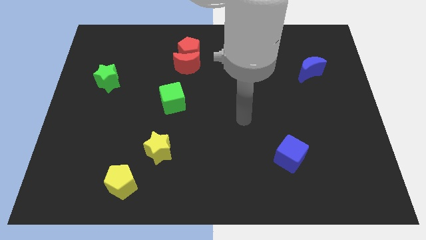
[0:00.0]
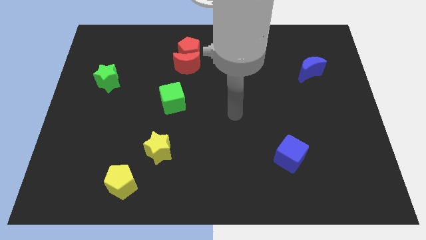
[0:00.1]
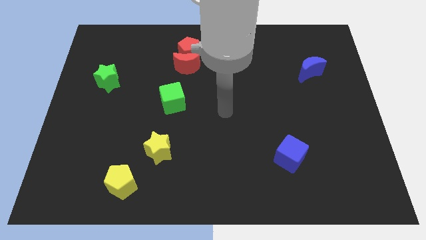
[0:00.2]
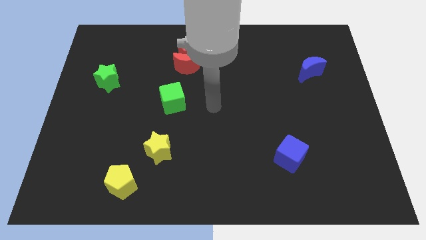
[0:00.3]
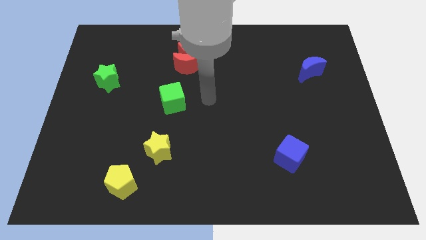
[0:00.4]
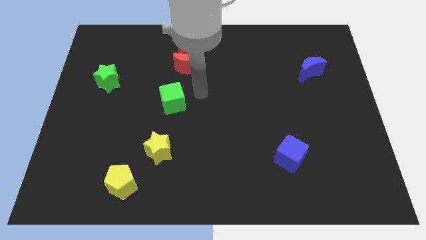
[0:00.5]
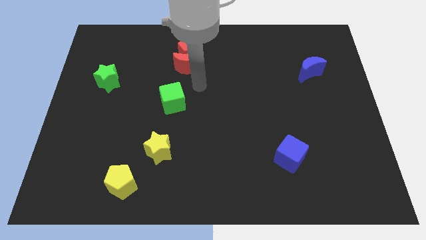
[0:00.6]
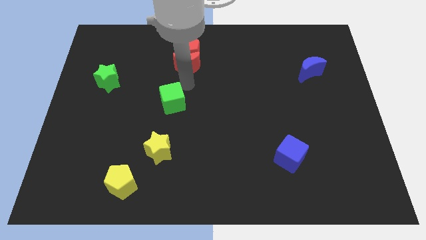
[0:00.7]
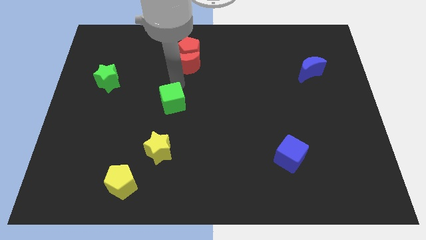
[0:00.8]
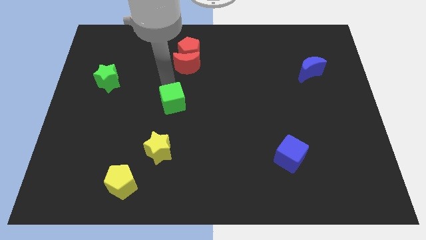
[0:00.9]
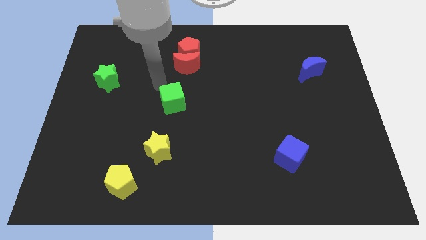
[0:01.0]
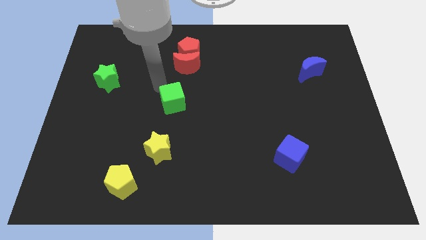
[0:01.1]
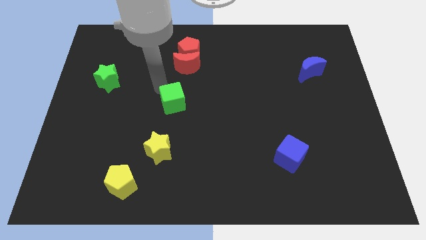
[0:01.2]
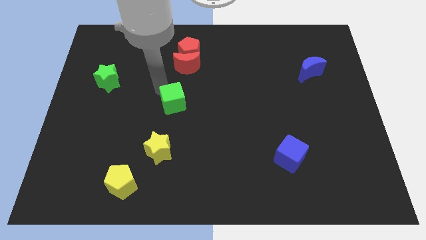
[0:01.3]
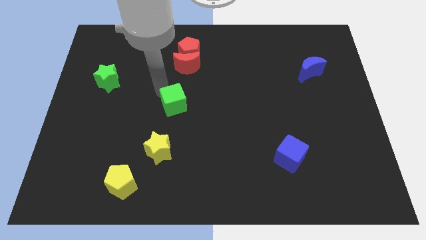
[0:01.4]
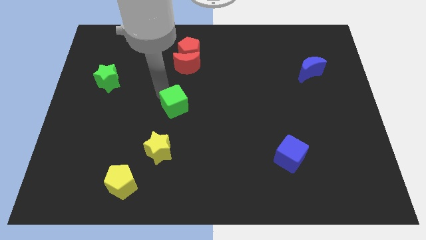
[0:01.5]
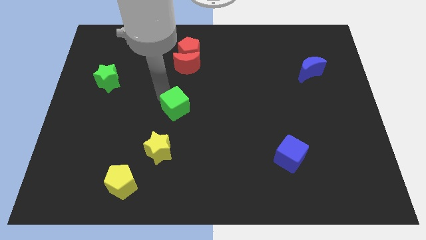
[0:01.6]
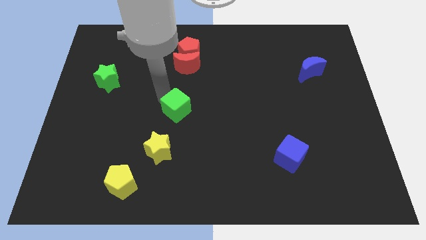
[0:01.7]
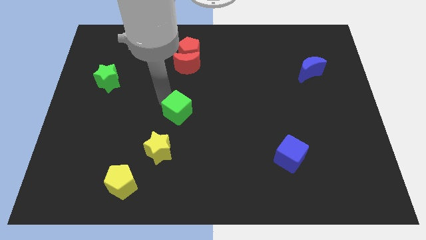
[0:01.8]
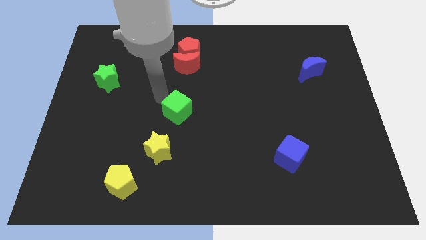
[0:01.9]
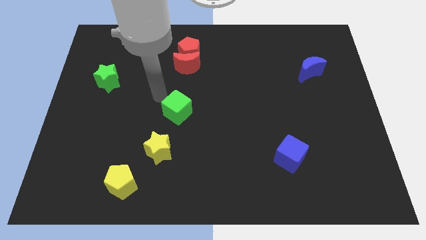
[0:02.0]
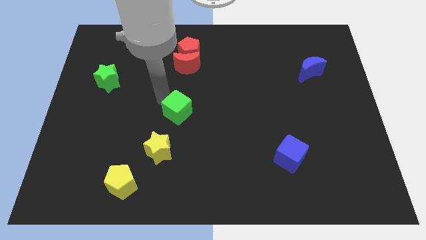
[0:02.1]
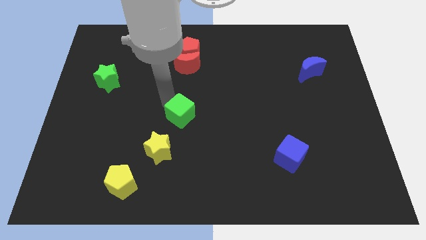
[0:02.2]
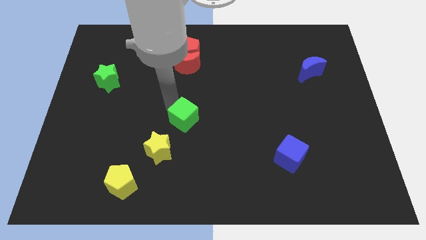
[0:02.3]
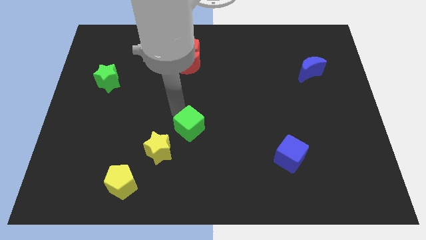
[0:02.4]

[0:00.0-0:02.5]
move the green cube down and right diagonally a little

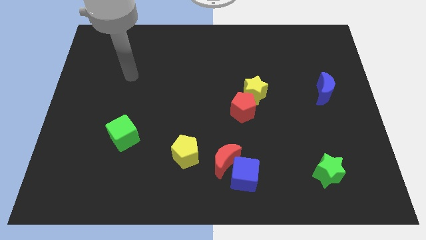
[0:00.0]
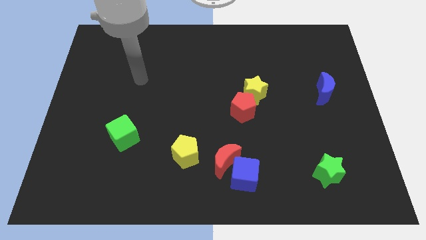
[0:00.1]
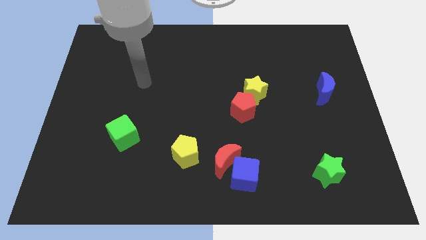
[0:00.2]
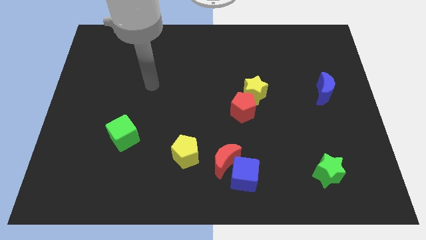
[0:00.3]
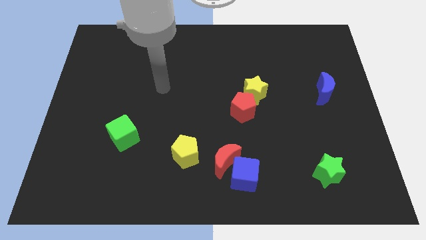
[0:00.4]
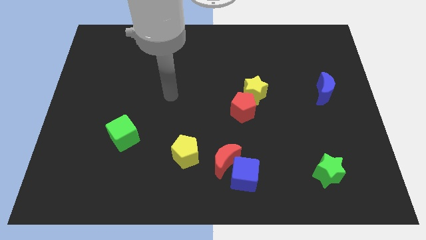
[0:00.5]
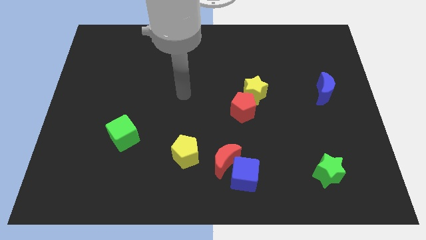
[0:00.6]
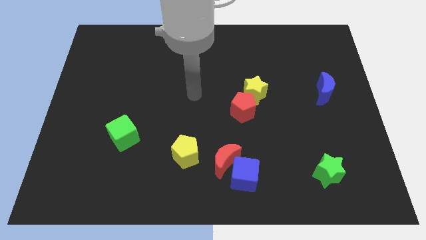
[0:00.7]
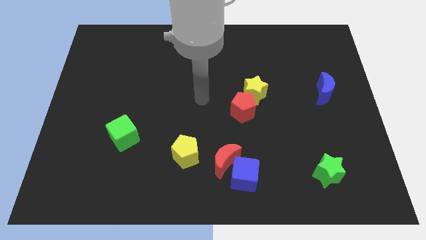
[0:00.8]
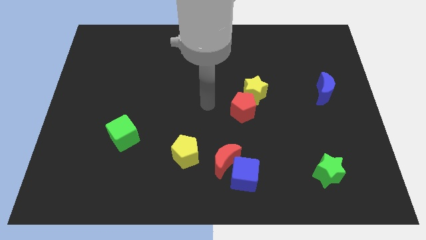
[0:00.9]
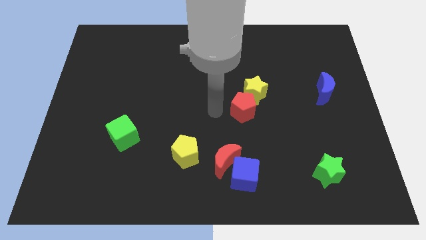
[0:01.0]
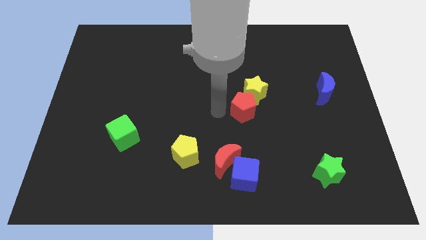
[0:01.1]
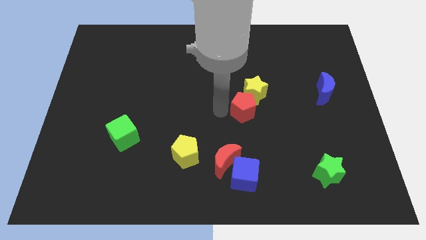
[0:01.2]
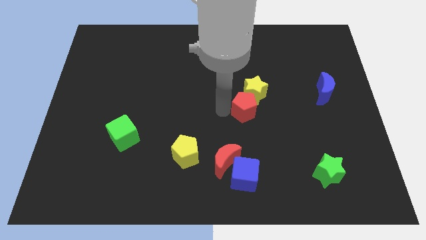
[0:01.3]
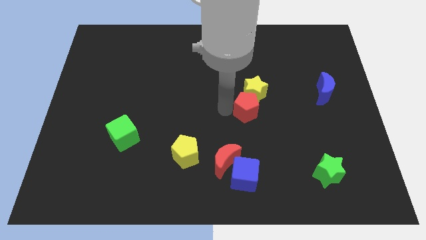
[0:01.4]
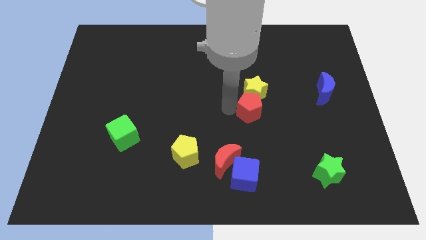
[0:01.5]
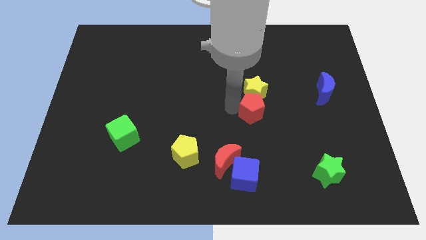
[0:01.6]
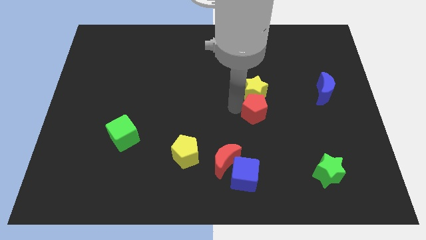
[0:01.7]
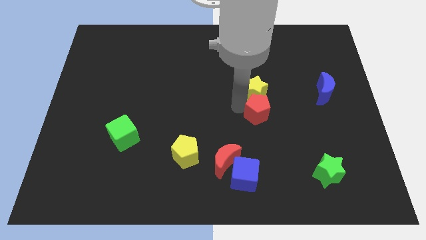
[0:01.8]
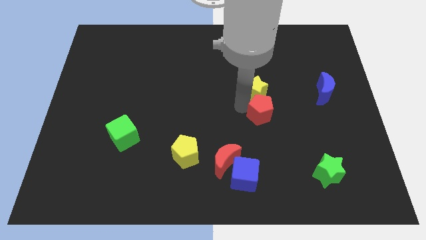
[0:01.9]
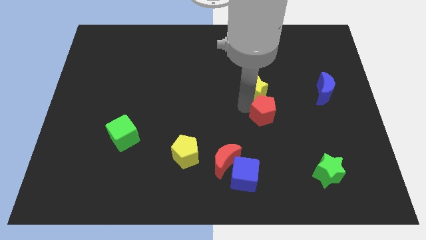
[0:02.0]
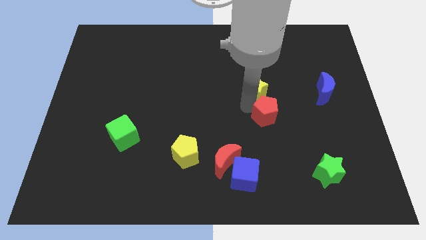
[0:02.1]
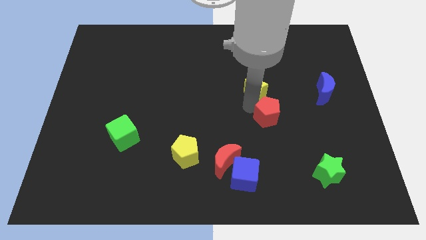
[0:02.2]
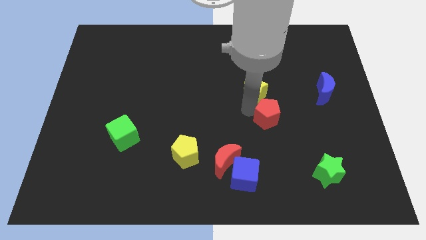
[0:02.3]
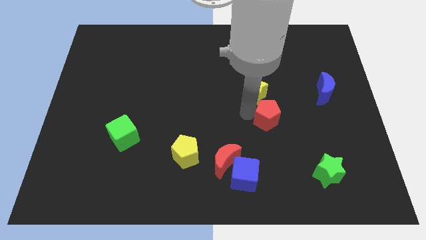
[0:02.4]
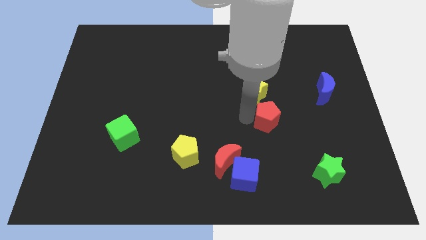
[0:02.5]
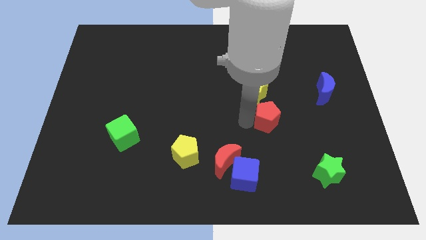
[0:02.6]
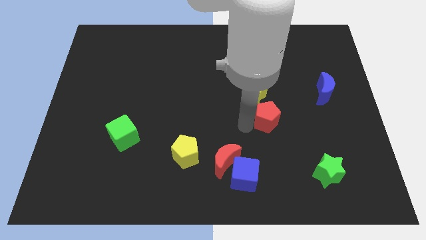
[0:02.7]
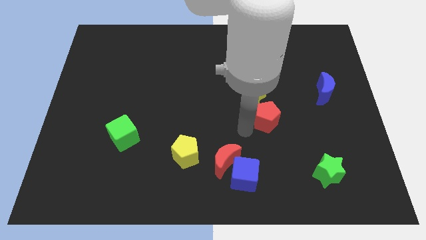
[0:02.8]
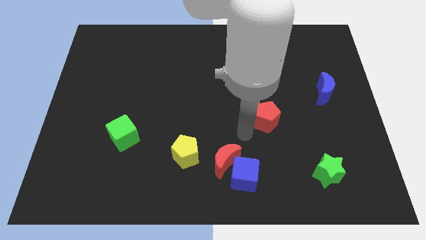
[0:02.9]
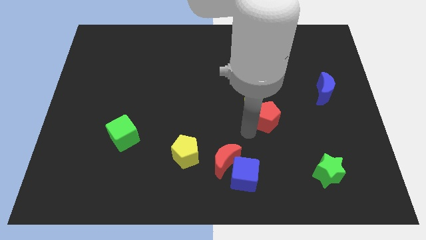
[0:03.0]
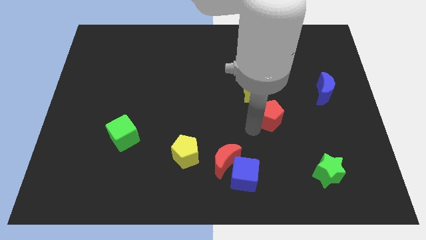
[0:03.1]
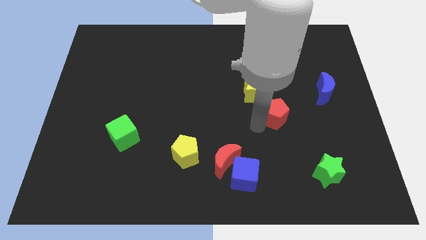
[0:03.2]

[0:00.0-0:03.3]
push the red pentagon to the right a little

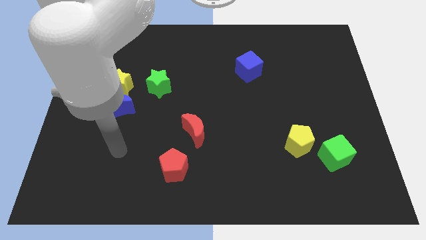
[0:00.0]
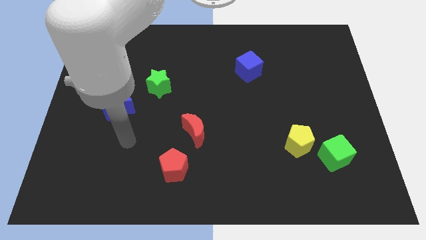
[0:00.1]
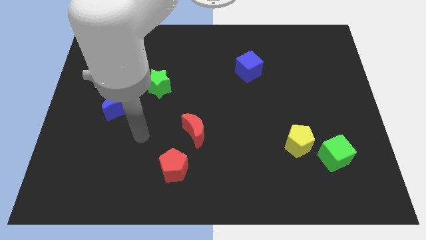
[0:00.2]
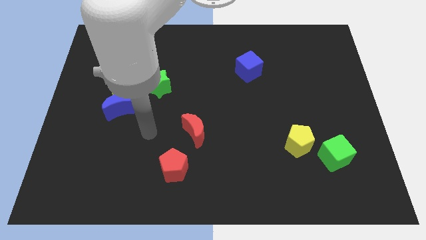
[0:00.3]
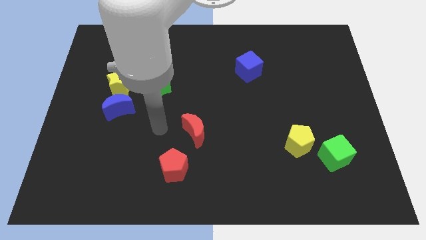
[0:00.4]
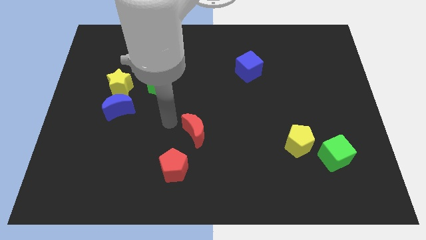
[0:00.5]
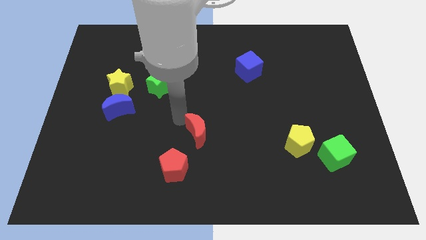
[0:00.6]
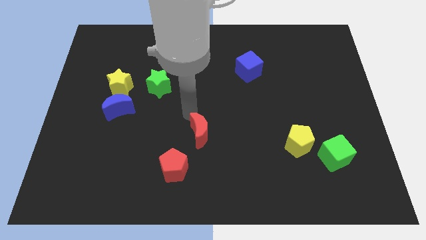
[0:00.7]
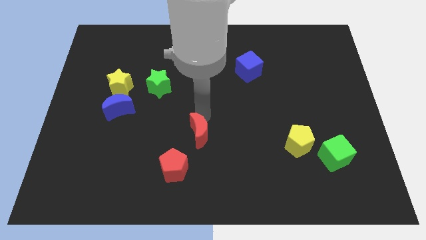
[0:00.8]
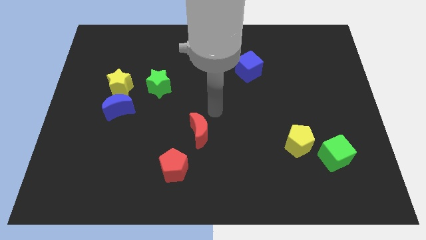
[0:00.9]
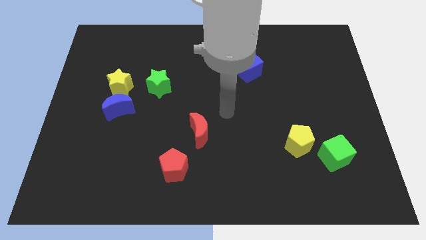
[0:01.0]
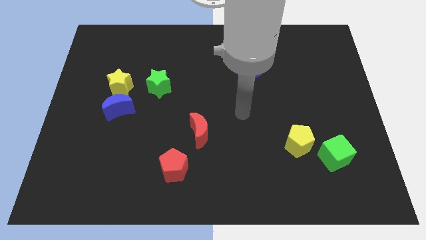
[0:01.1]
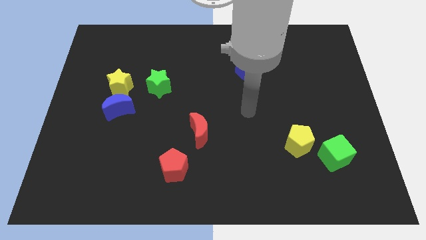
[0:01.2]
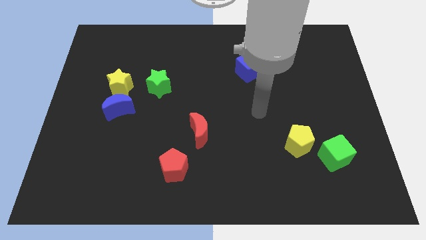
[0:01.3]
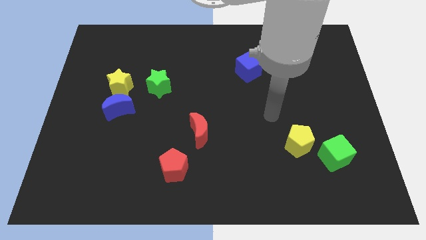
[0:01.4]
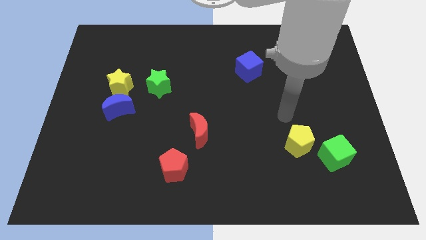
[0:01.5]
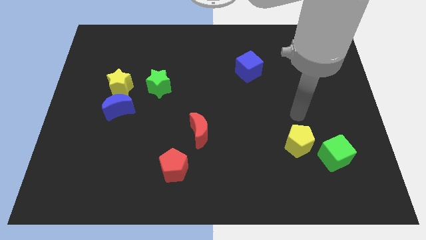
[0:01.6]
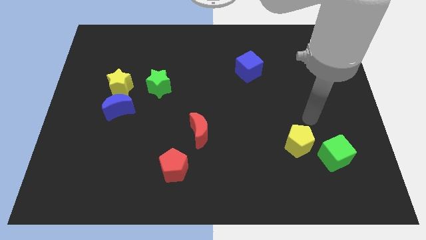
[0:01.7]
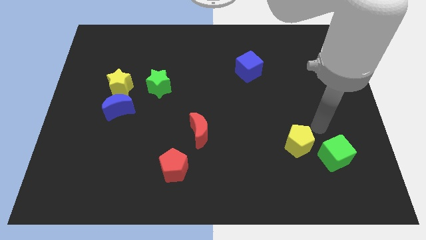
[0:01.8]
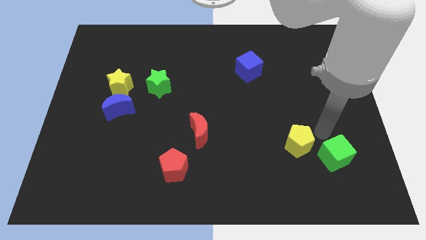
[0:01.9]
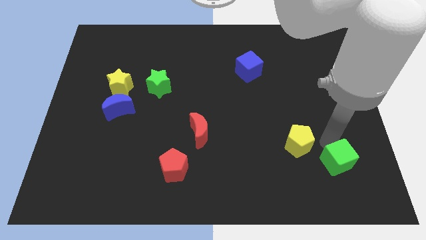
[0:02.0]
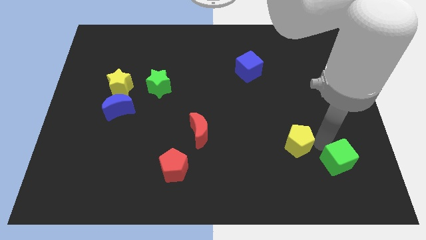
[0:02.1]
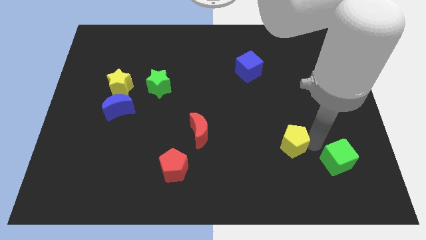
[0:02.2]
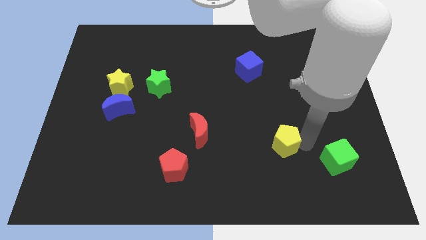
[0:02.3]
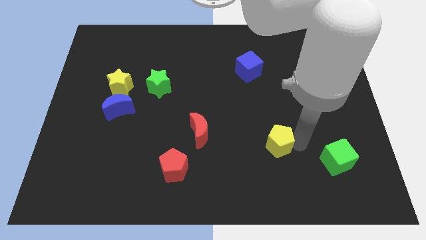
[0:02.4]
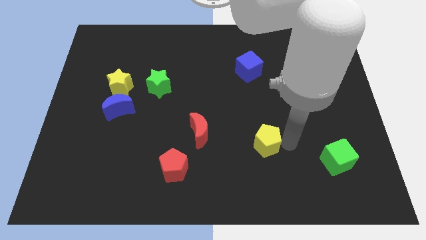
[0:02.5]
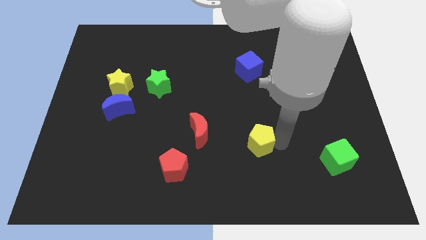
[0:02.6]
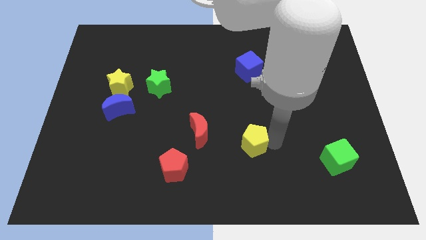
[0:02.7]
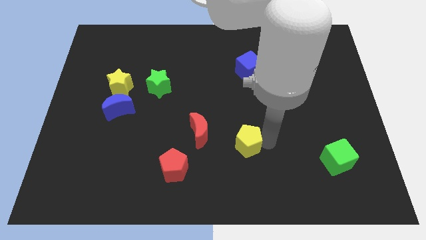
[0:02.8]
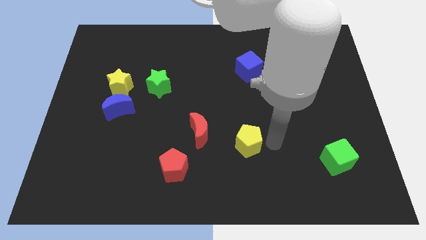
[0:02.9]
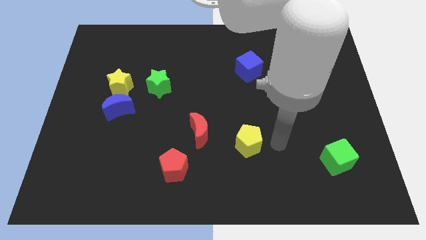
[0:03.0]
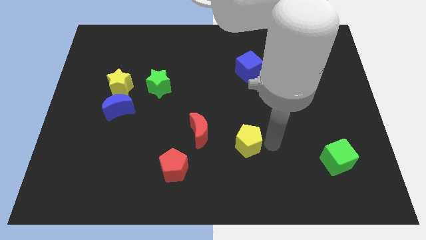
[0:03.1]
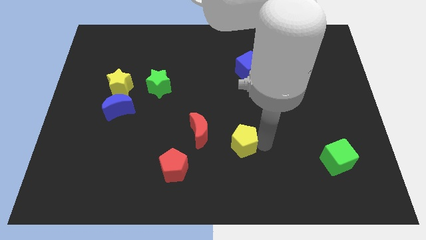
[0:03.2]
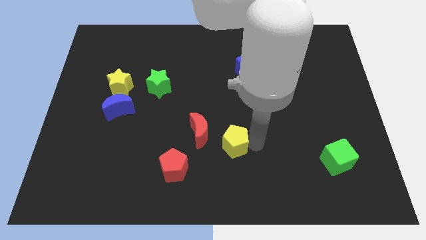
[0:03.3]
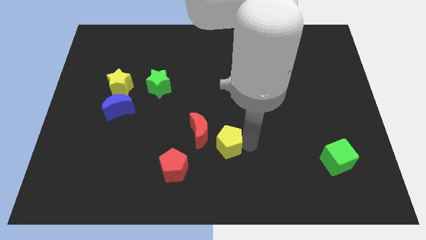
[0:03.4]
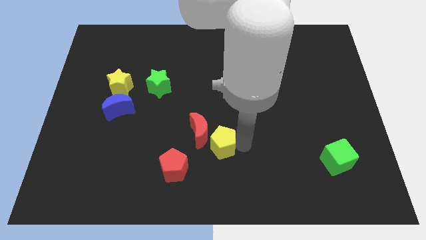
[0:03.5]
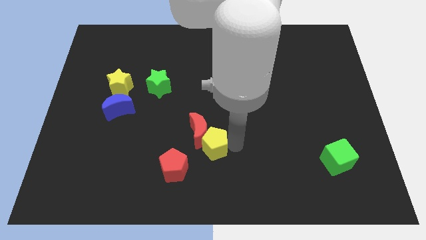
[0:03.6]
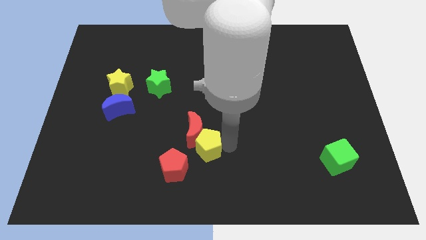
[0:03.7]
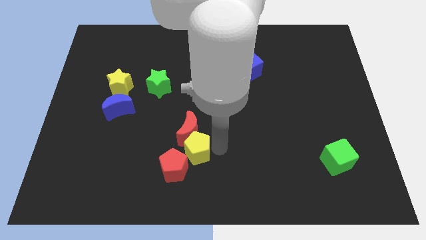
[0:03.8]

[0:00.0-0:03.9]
move the yellow pentagon to the left
